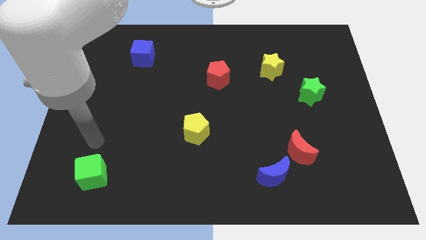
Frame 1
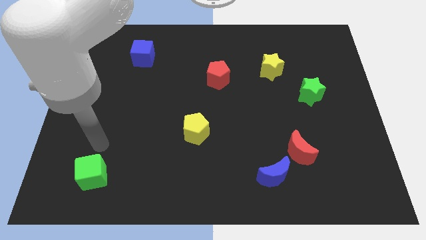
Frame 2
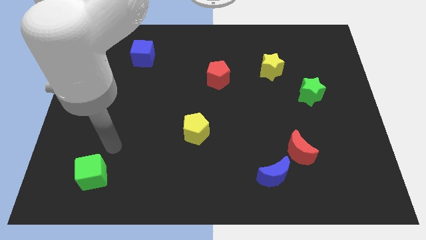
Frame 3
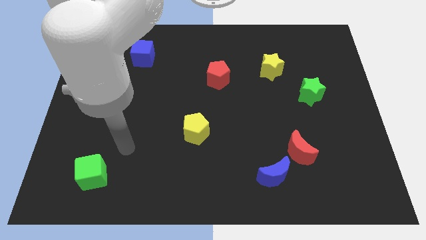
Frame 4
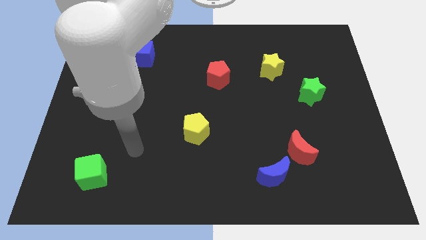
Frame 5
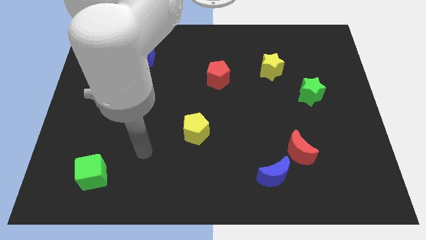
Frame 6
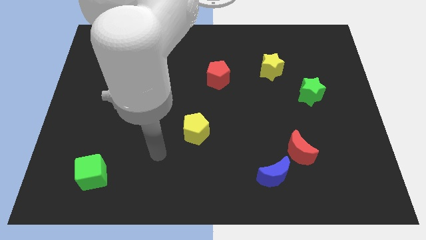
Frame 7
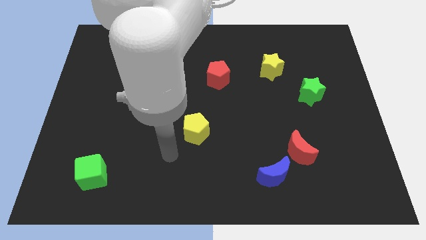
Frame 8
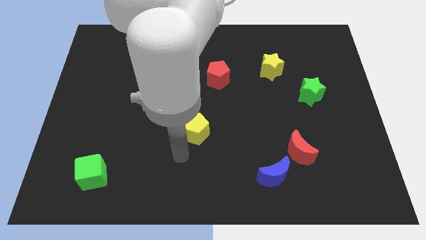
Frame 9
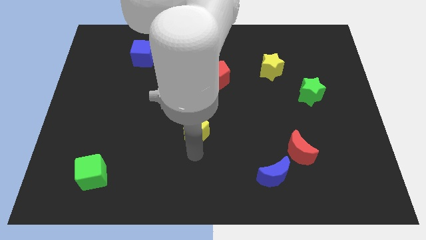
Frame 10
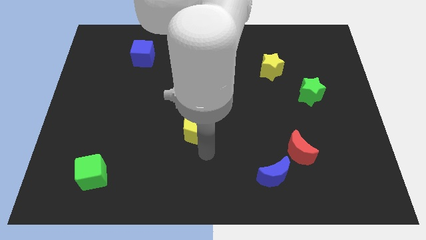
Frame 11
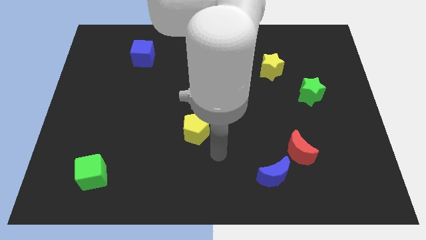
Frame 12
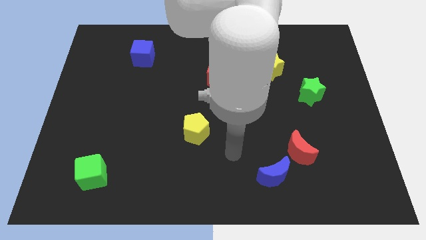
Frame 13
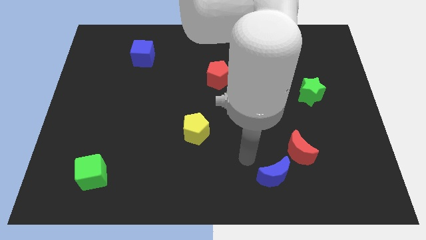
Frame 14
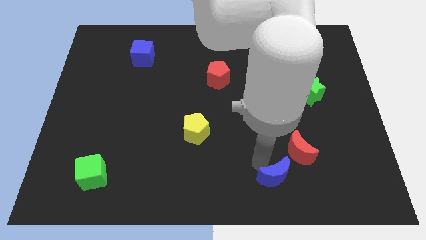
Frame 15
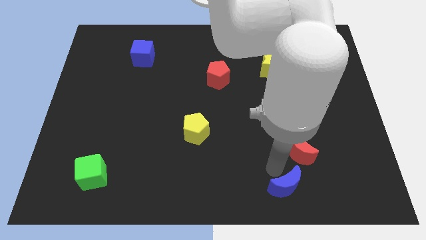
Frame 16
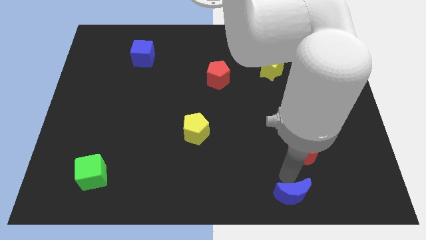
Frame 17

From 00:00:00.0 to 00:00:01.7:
move the red moon away from the blue moon

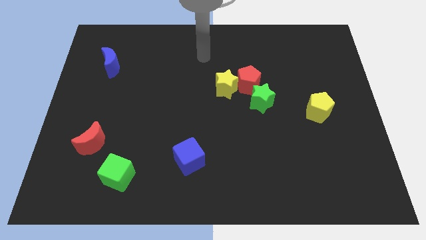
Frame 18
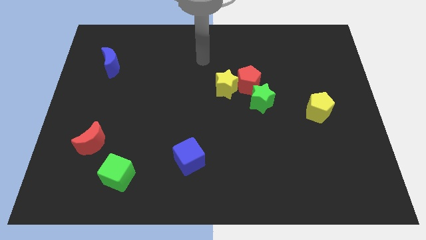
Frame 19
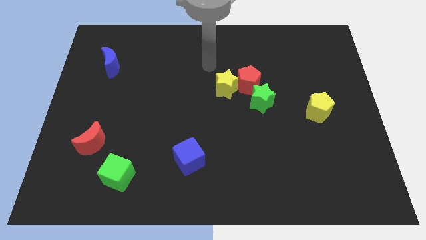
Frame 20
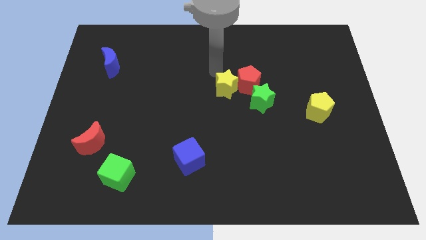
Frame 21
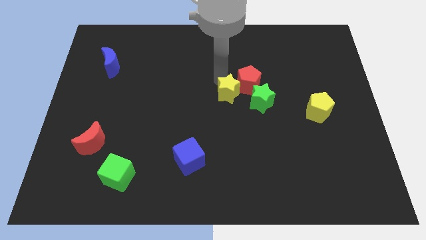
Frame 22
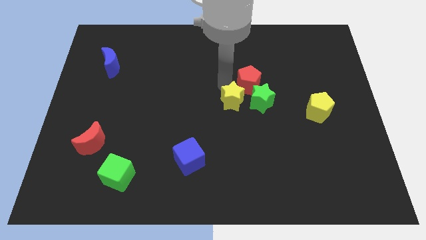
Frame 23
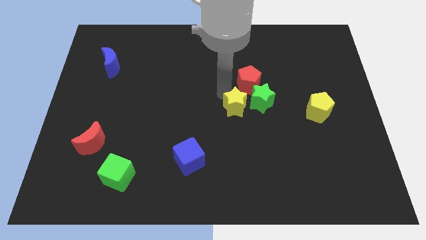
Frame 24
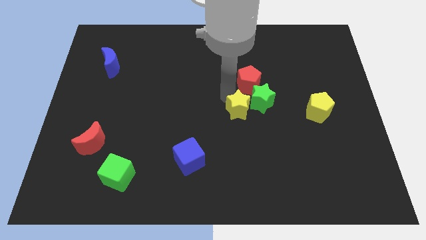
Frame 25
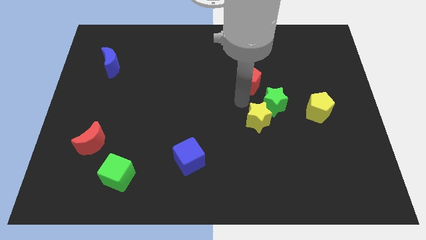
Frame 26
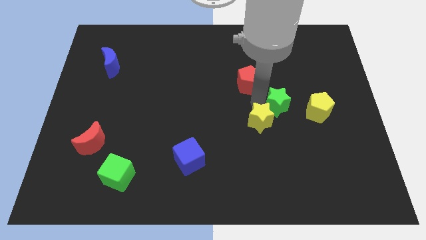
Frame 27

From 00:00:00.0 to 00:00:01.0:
move the red pentagon away from the yellow star and green star

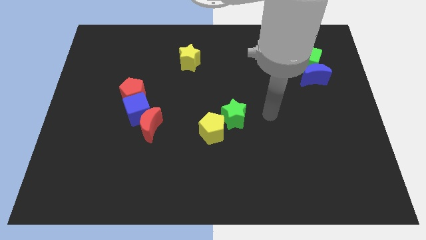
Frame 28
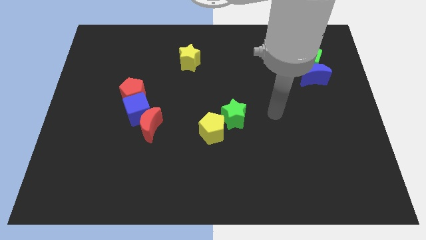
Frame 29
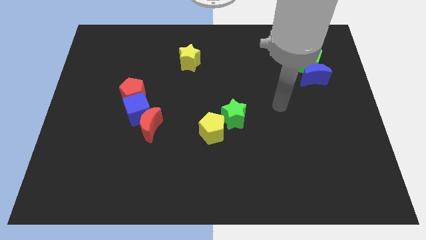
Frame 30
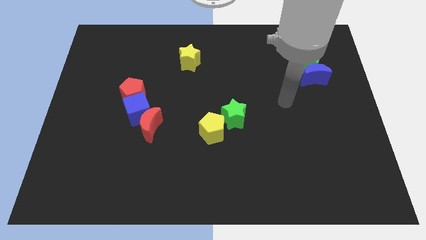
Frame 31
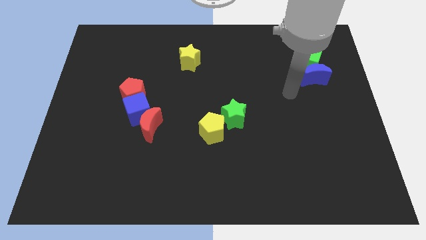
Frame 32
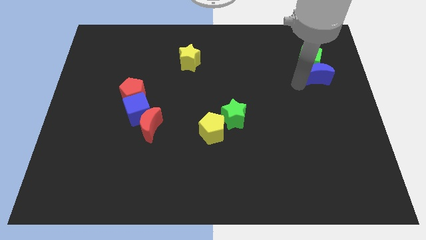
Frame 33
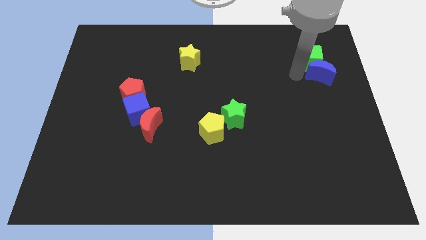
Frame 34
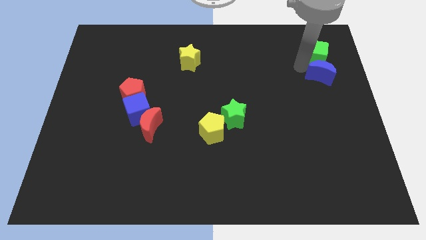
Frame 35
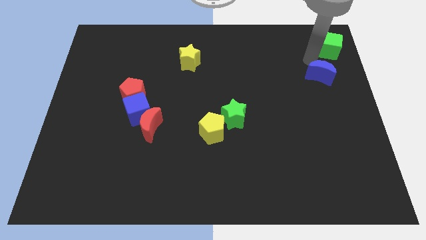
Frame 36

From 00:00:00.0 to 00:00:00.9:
move the blue moon away from the green cube

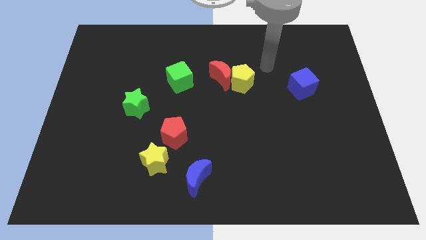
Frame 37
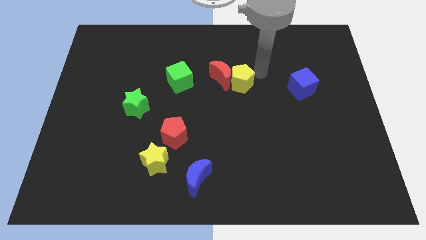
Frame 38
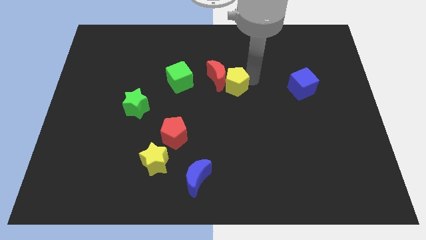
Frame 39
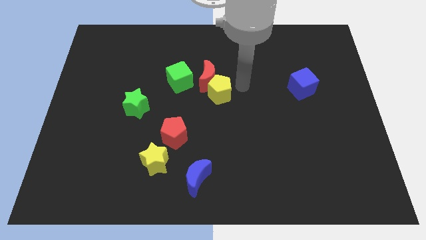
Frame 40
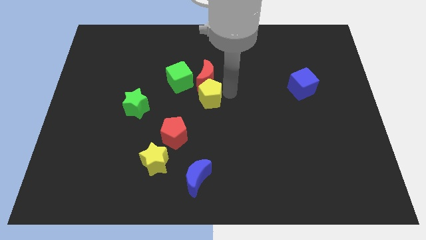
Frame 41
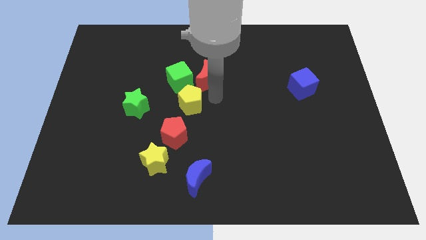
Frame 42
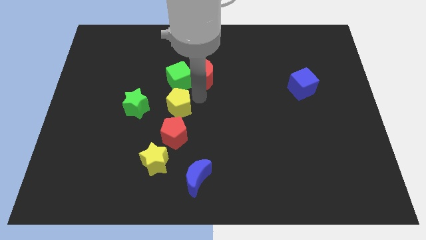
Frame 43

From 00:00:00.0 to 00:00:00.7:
move the red moon away from the yellow pentagon

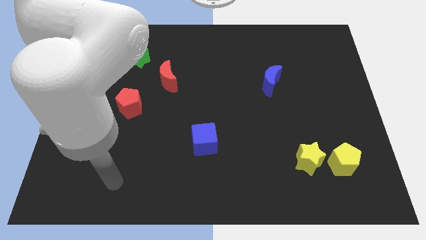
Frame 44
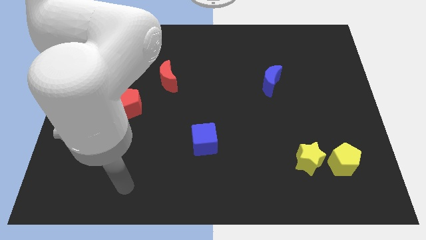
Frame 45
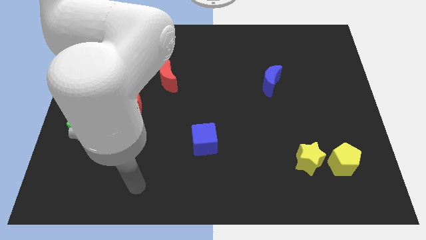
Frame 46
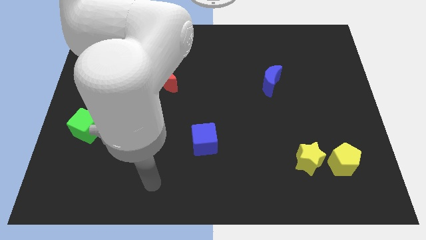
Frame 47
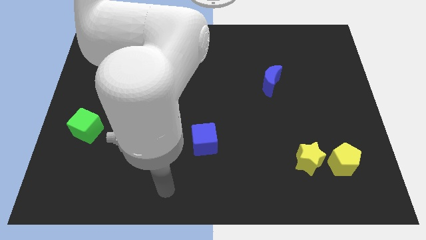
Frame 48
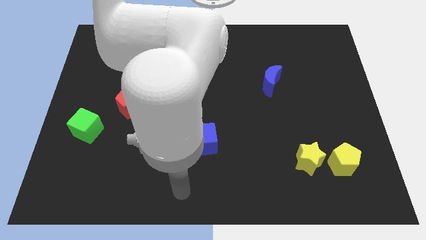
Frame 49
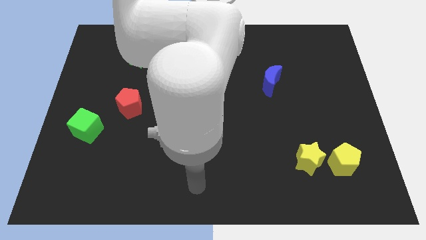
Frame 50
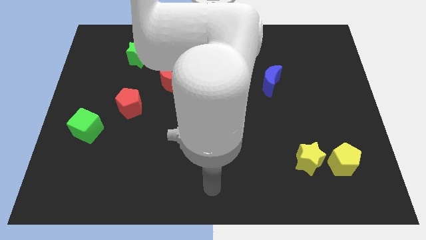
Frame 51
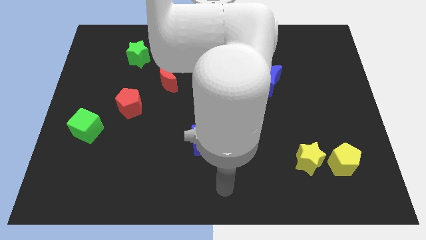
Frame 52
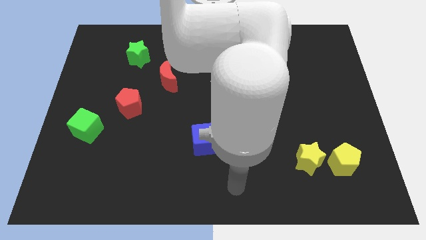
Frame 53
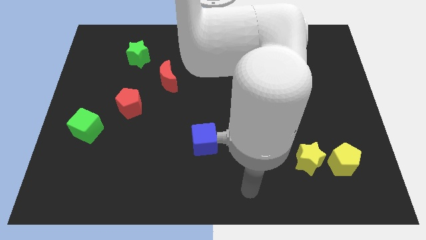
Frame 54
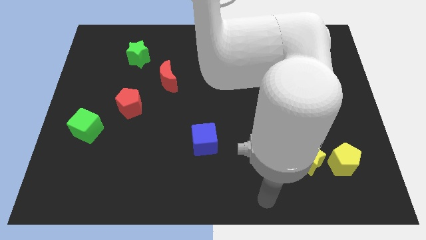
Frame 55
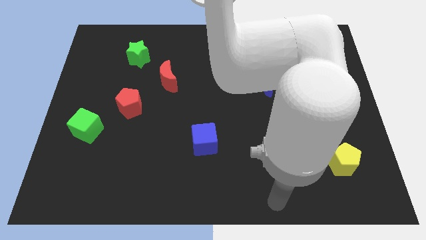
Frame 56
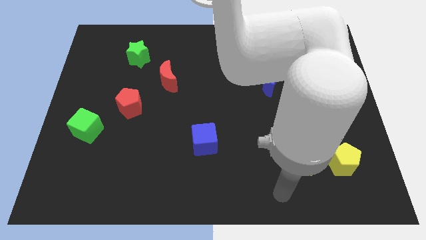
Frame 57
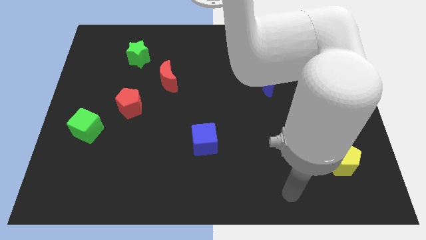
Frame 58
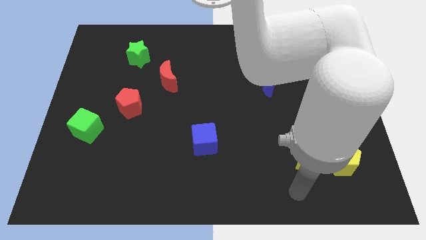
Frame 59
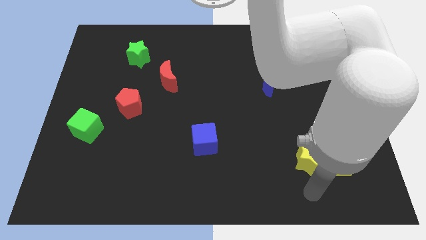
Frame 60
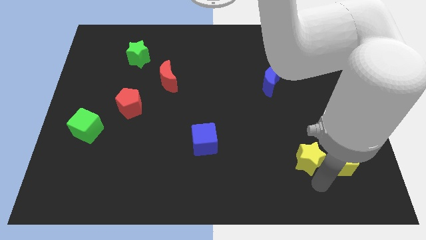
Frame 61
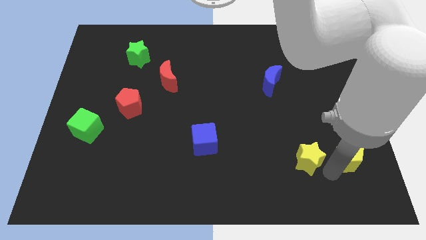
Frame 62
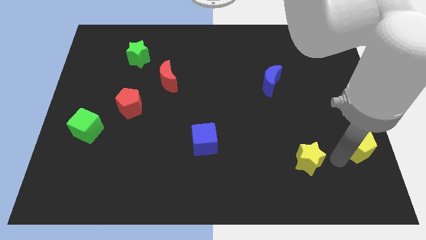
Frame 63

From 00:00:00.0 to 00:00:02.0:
separate the yellow star from the yellow pentagon

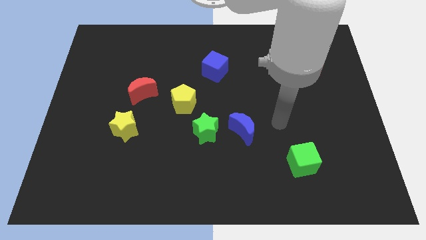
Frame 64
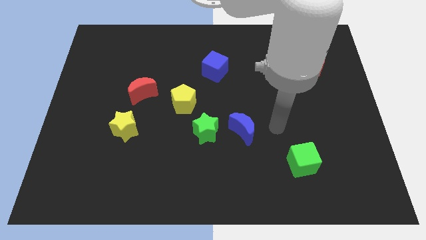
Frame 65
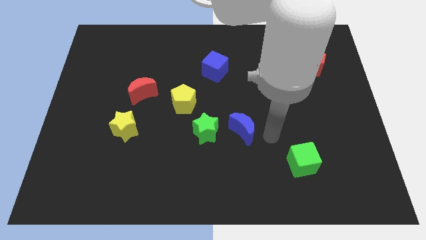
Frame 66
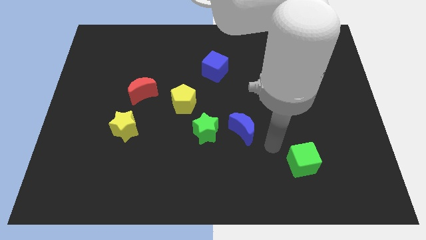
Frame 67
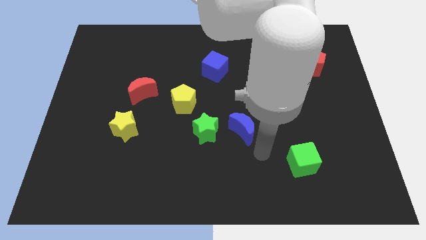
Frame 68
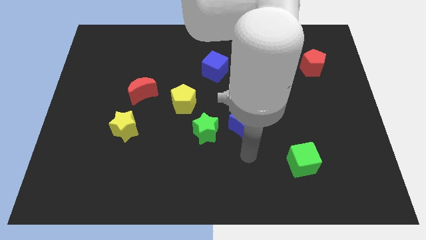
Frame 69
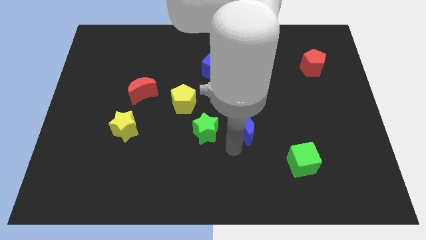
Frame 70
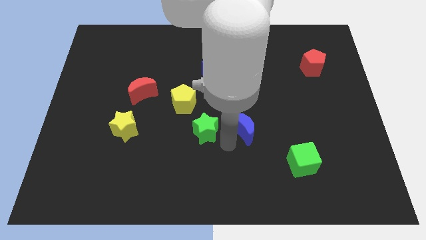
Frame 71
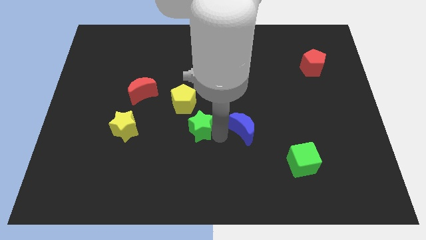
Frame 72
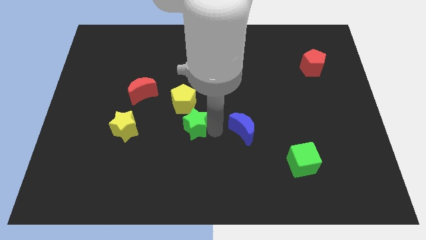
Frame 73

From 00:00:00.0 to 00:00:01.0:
move the blue moon away from the green star

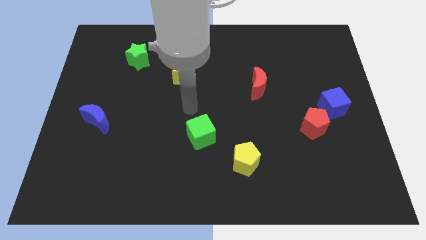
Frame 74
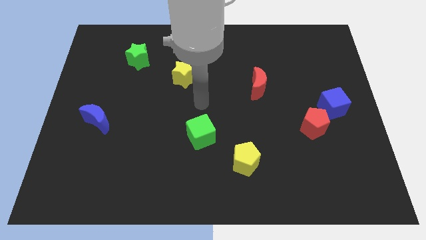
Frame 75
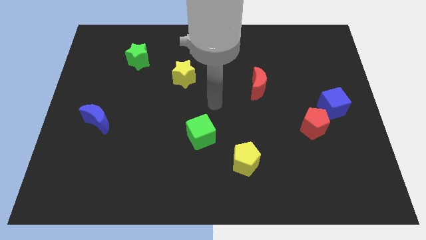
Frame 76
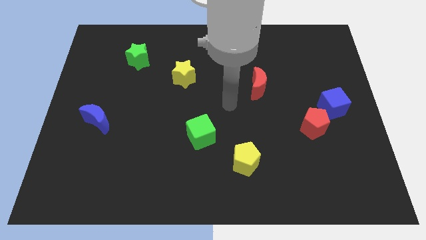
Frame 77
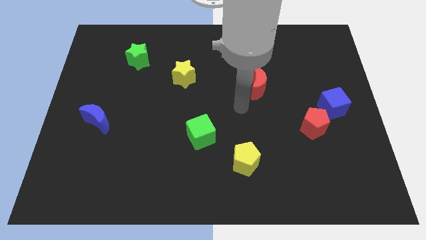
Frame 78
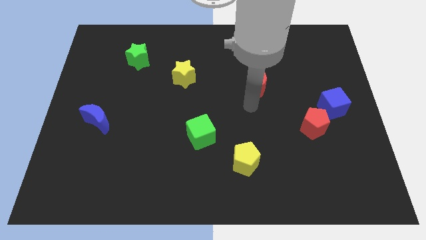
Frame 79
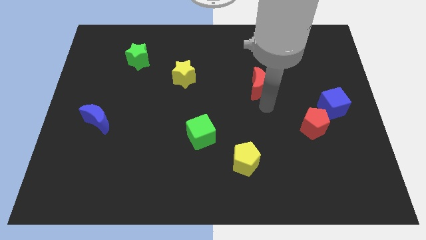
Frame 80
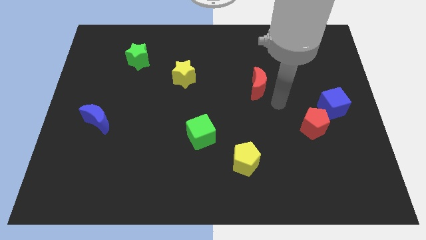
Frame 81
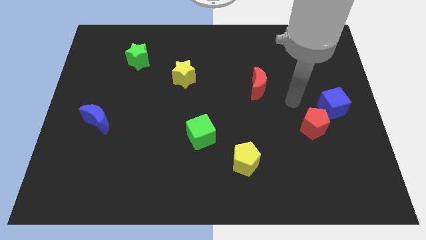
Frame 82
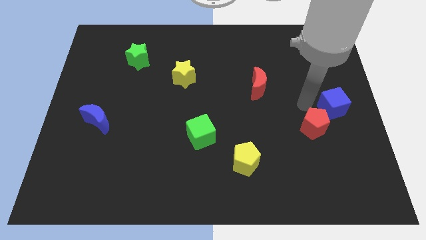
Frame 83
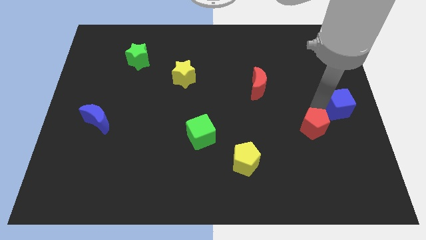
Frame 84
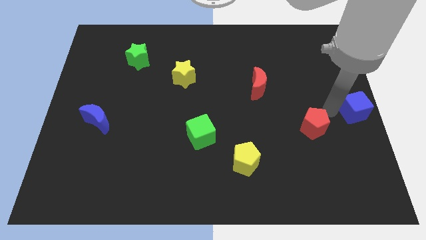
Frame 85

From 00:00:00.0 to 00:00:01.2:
pull the red pentagon apart from the blue cube

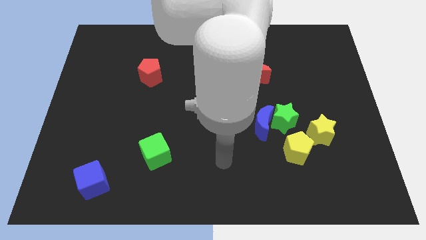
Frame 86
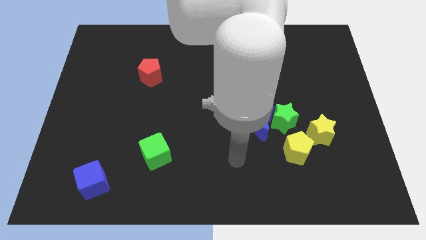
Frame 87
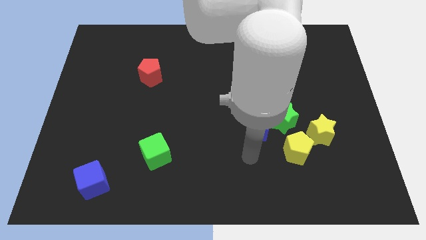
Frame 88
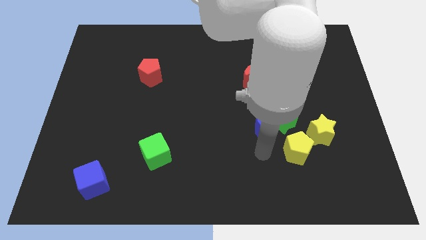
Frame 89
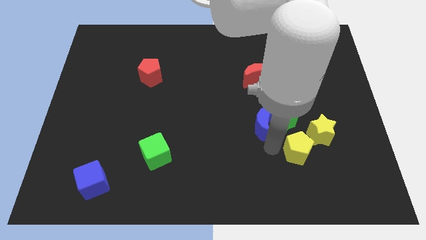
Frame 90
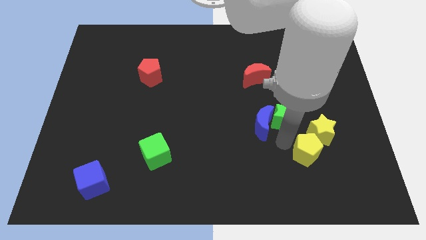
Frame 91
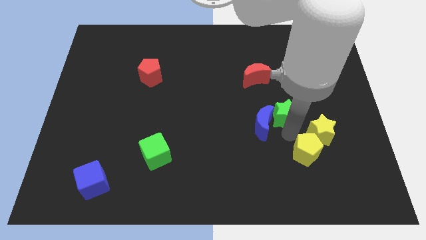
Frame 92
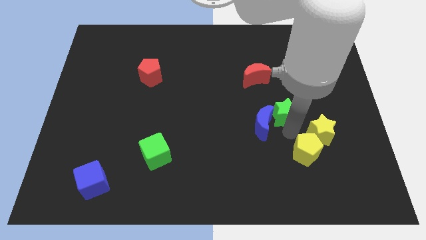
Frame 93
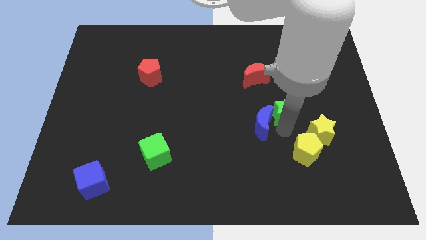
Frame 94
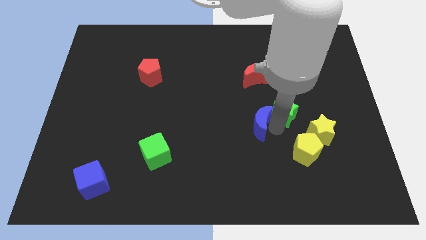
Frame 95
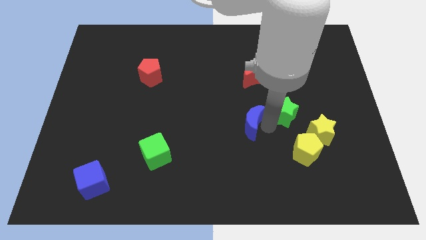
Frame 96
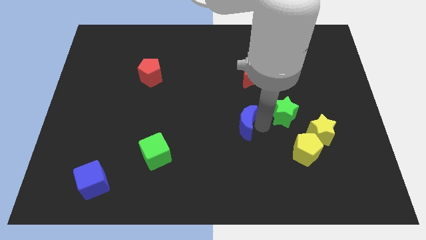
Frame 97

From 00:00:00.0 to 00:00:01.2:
move the blue moon away from the green star and yellow pentagon
